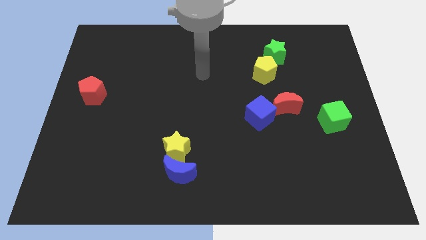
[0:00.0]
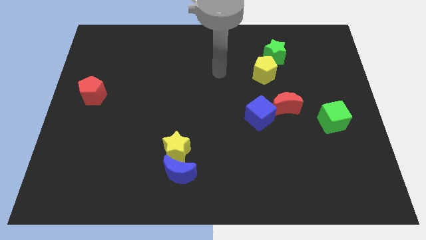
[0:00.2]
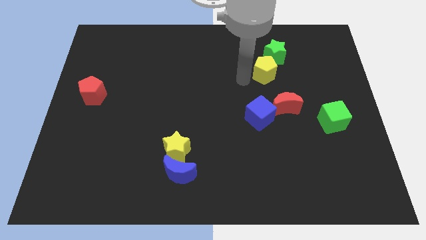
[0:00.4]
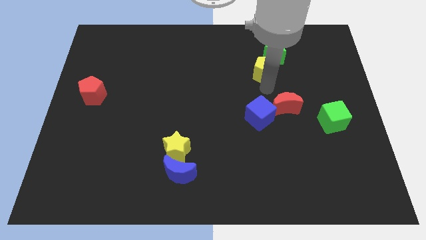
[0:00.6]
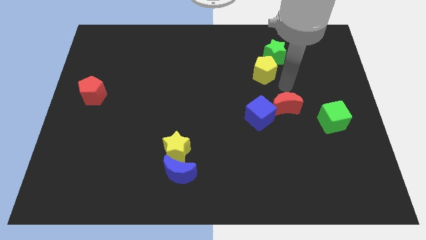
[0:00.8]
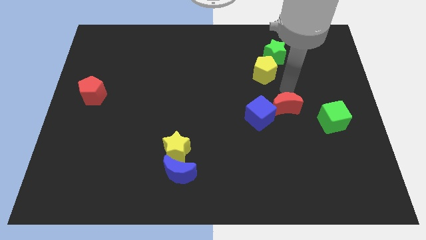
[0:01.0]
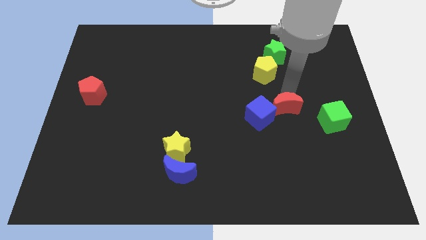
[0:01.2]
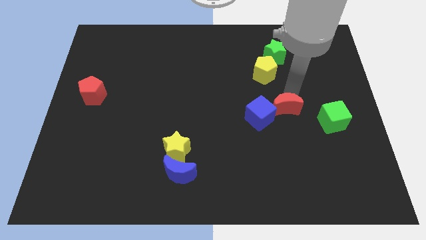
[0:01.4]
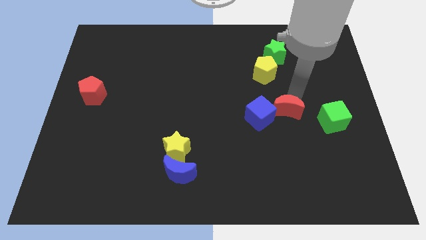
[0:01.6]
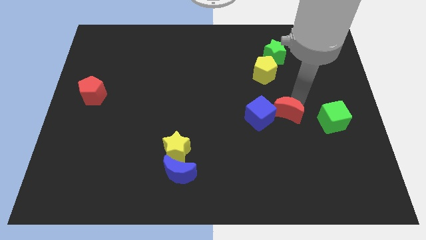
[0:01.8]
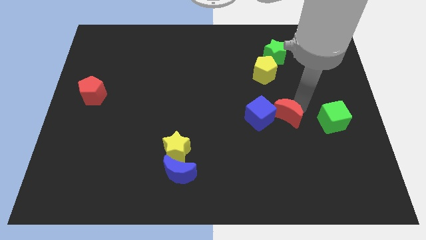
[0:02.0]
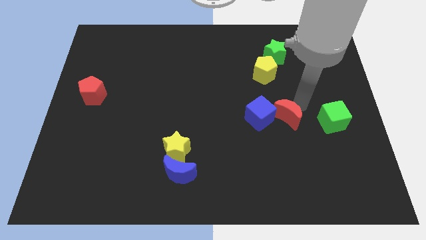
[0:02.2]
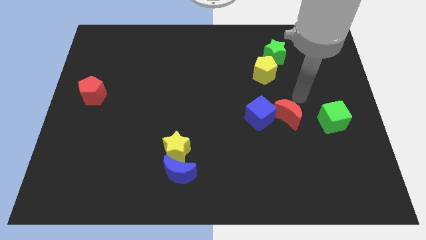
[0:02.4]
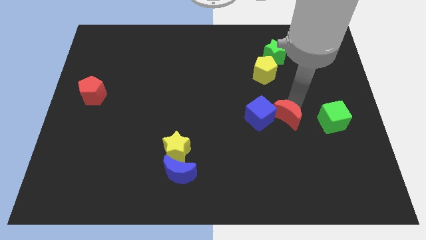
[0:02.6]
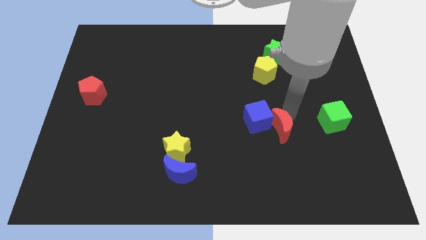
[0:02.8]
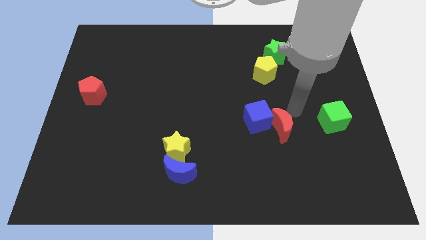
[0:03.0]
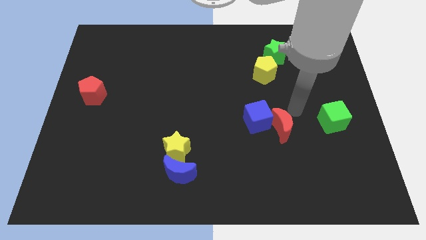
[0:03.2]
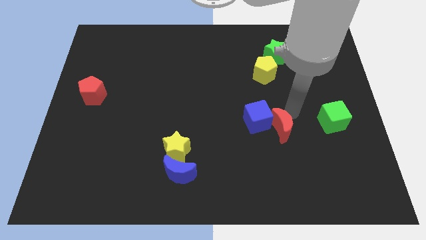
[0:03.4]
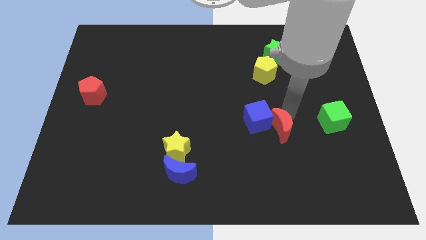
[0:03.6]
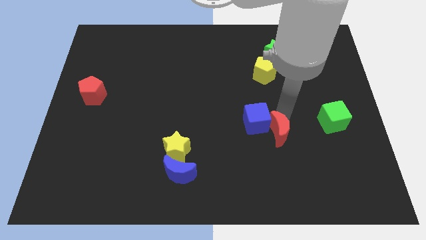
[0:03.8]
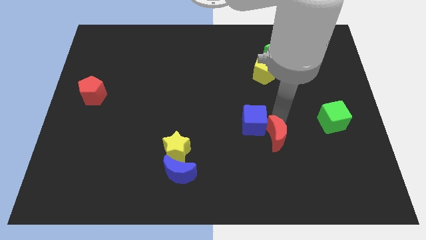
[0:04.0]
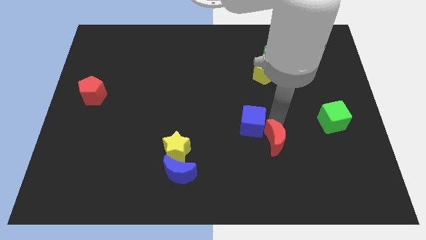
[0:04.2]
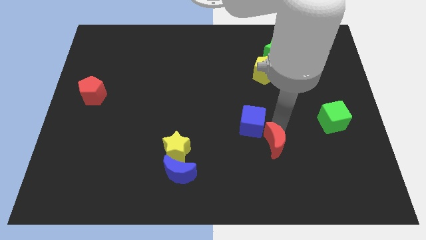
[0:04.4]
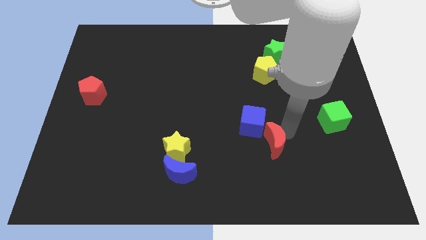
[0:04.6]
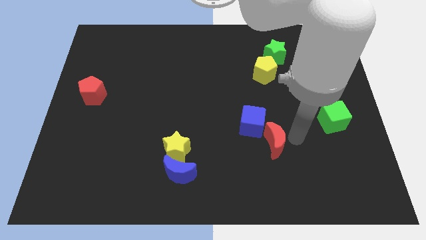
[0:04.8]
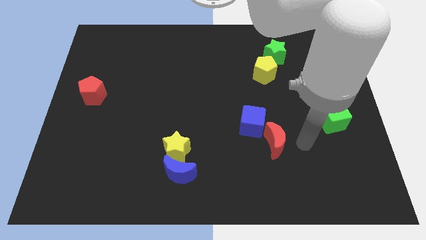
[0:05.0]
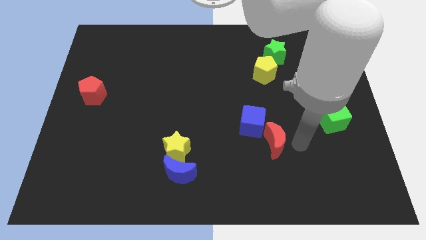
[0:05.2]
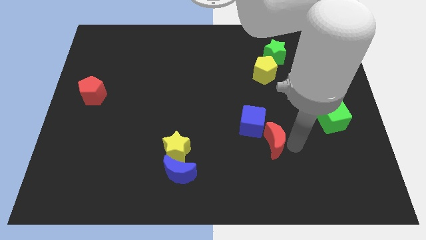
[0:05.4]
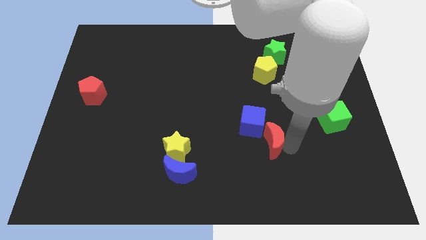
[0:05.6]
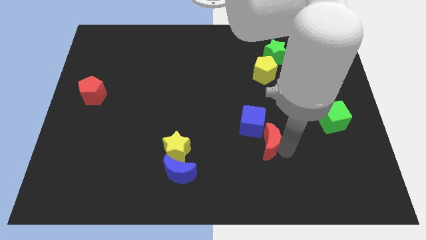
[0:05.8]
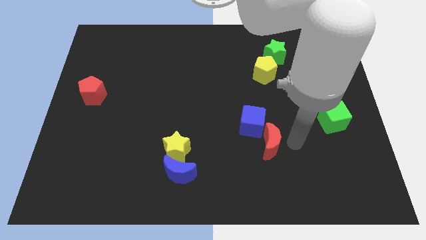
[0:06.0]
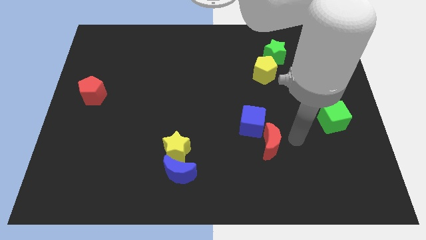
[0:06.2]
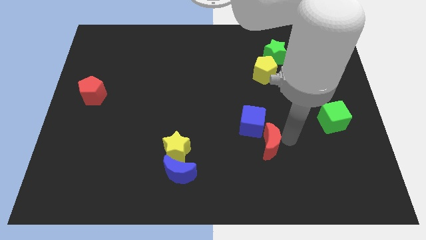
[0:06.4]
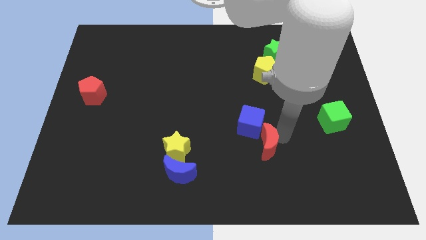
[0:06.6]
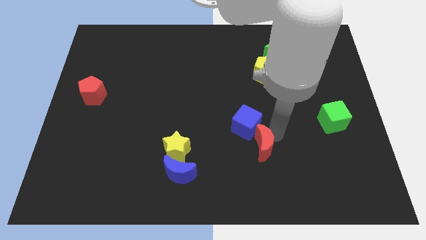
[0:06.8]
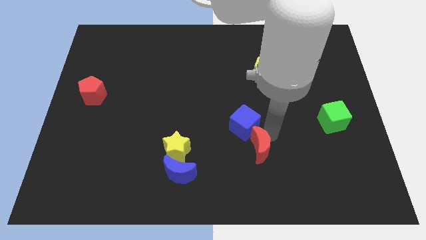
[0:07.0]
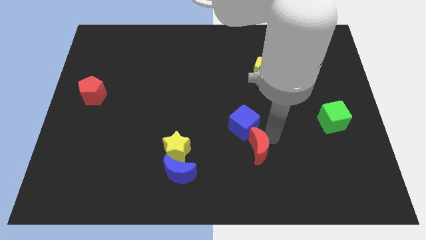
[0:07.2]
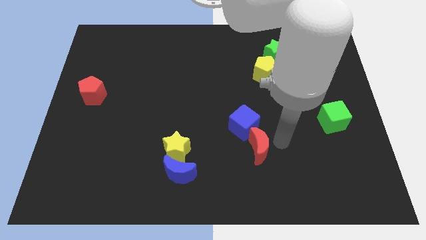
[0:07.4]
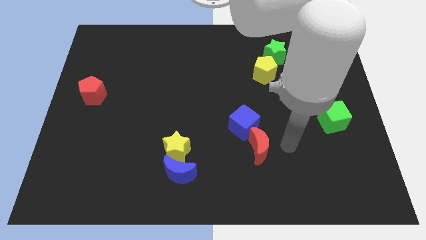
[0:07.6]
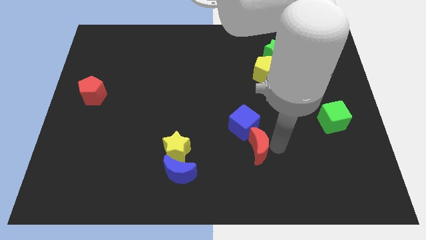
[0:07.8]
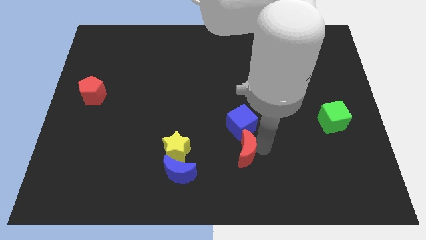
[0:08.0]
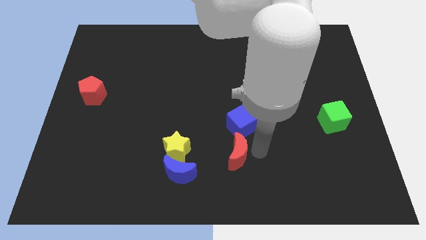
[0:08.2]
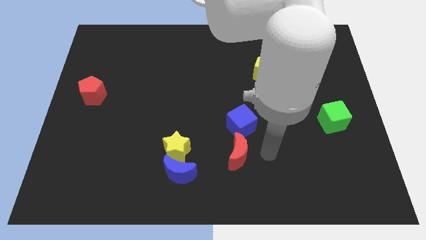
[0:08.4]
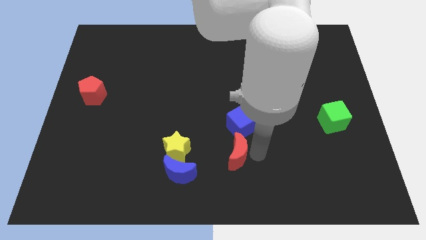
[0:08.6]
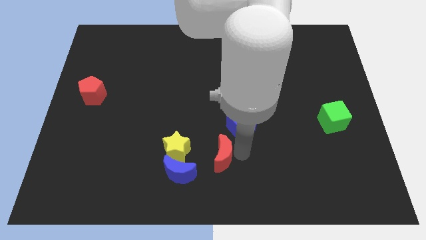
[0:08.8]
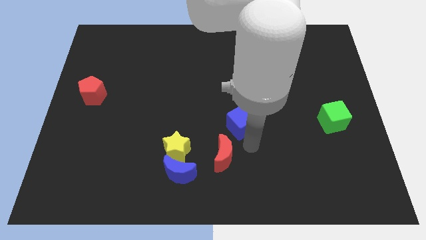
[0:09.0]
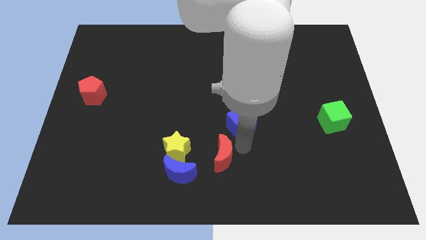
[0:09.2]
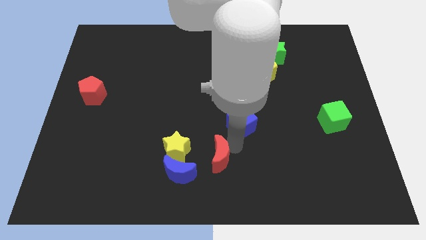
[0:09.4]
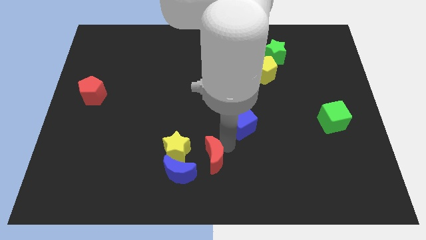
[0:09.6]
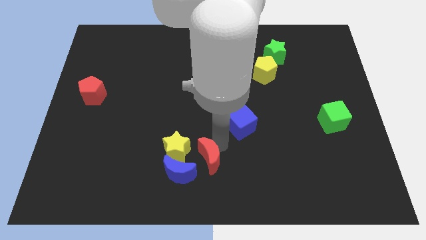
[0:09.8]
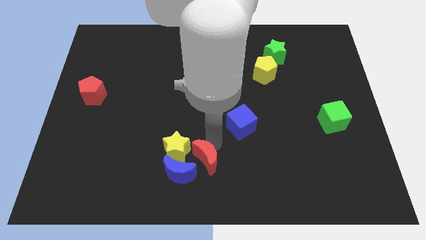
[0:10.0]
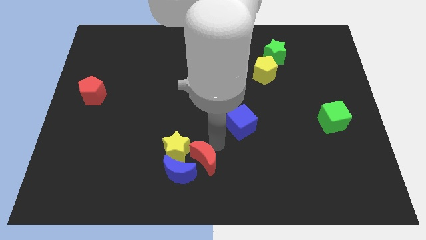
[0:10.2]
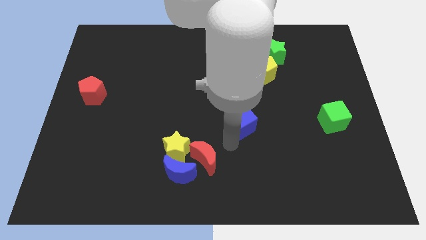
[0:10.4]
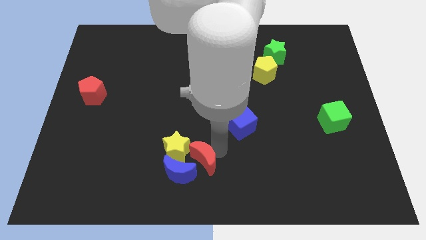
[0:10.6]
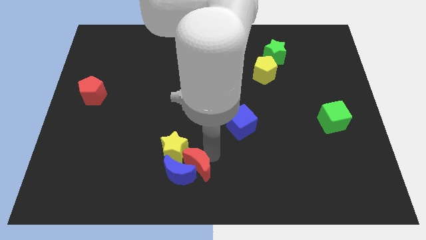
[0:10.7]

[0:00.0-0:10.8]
move the red moon close to the blue moon

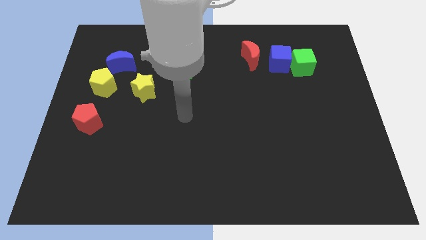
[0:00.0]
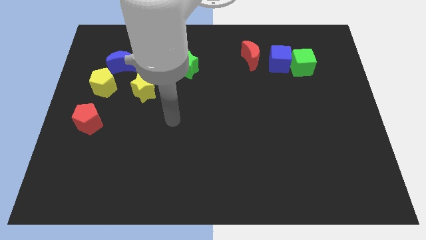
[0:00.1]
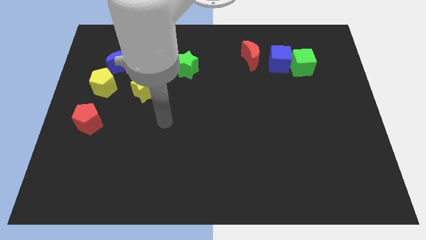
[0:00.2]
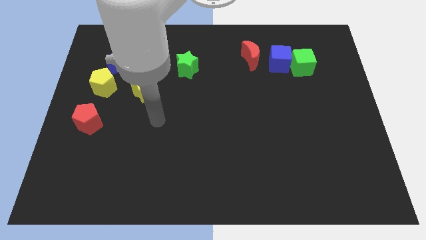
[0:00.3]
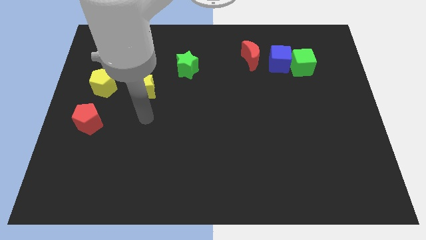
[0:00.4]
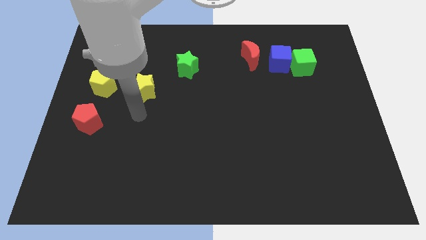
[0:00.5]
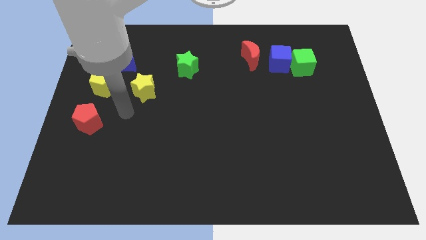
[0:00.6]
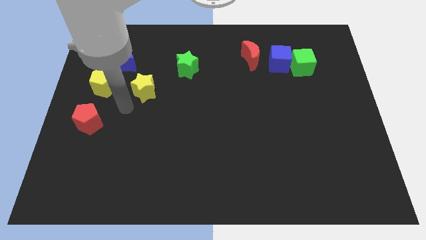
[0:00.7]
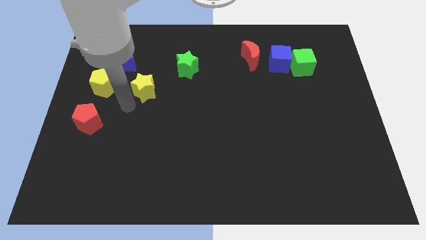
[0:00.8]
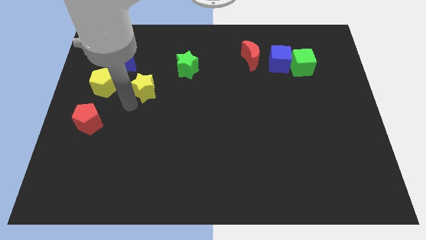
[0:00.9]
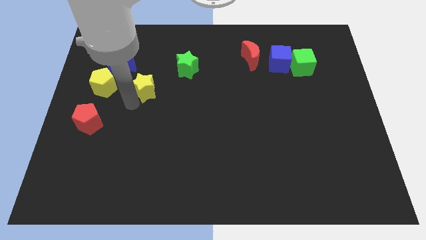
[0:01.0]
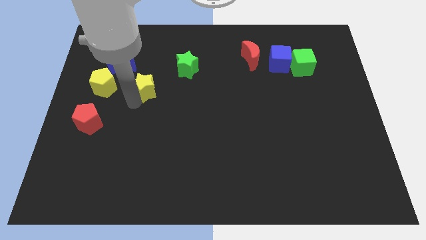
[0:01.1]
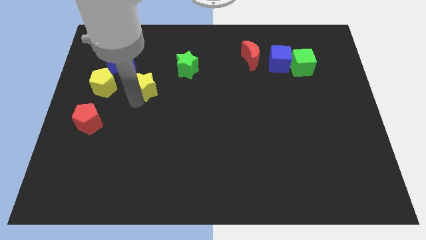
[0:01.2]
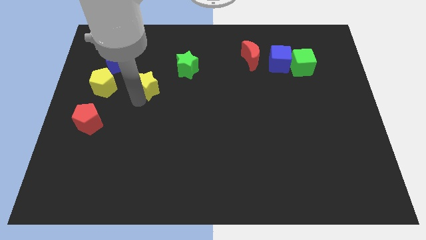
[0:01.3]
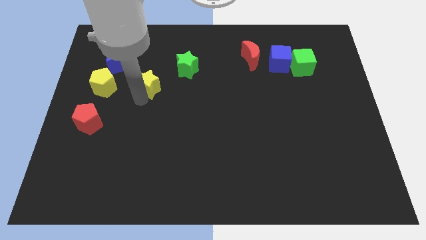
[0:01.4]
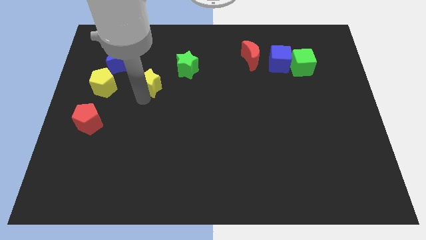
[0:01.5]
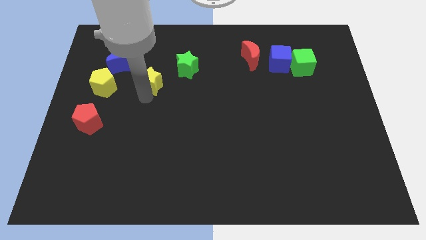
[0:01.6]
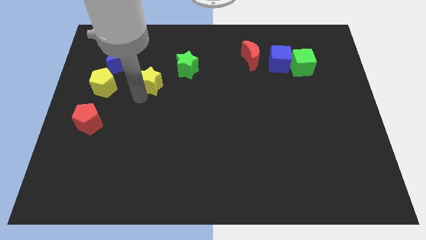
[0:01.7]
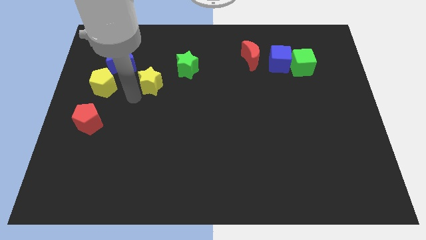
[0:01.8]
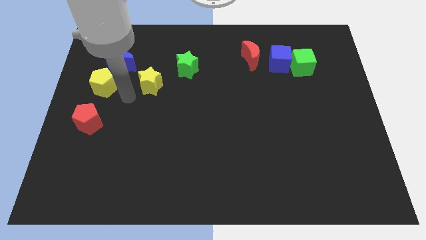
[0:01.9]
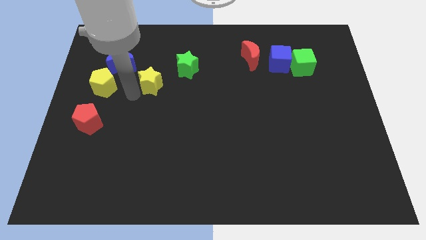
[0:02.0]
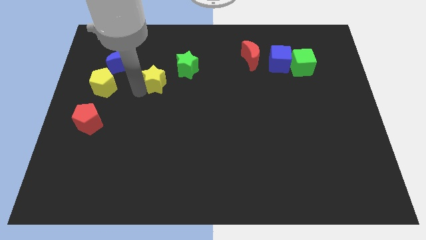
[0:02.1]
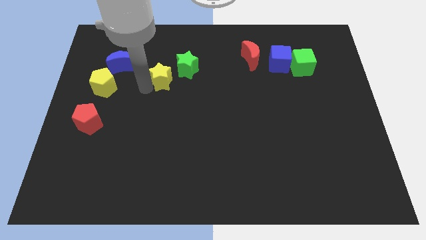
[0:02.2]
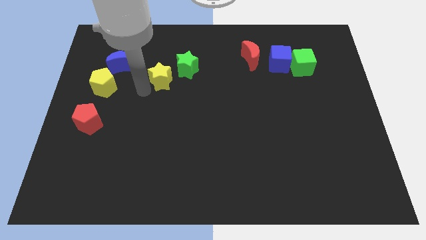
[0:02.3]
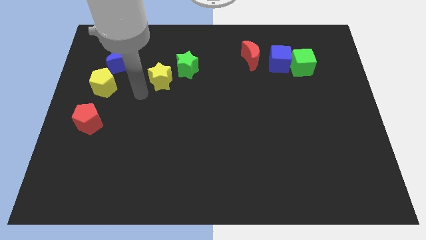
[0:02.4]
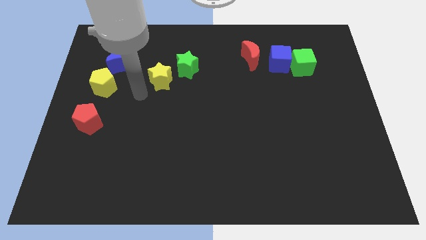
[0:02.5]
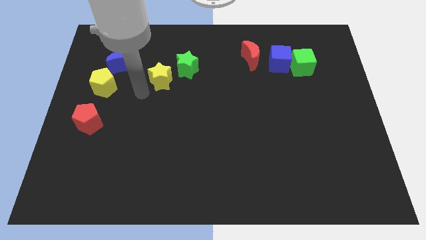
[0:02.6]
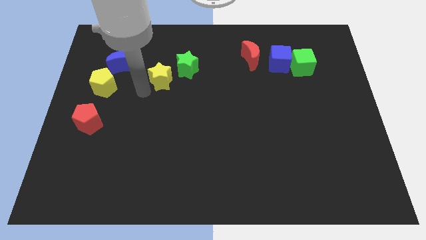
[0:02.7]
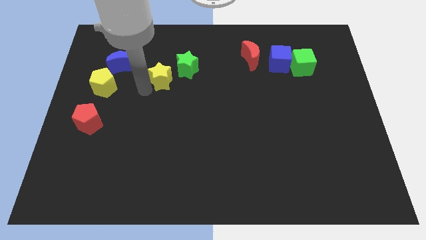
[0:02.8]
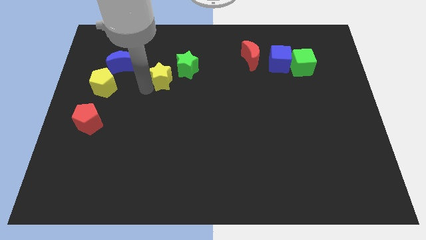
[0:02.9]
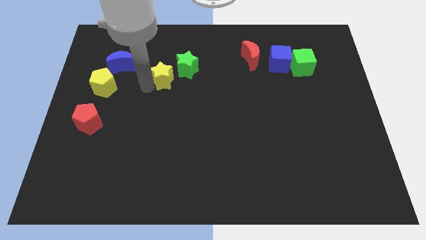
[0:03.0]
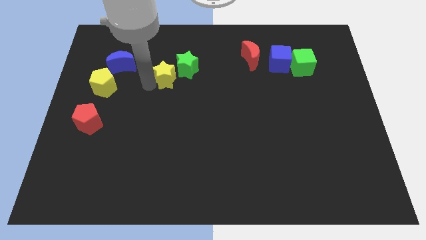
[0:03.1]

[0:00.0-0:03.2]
move the yellow star close to the green star
